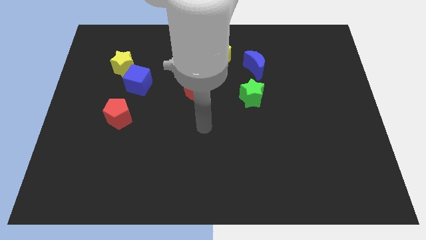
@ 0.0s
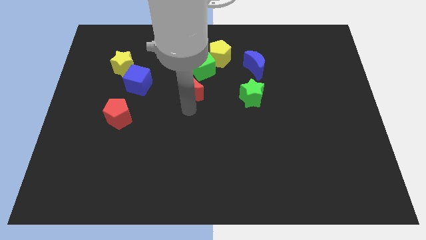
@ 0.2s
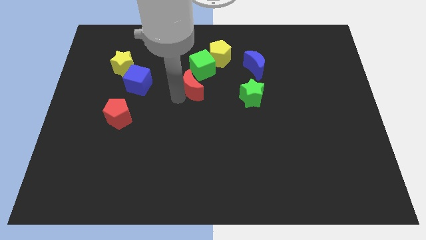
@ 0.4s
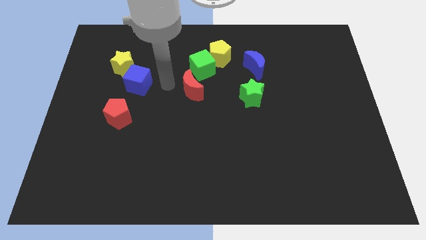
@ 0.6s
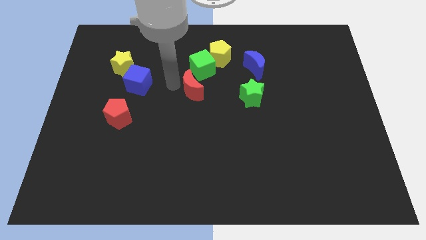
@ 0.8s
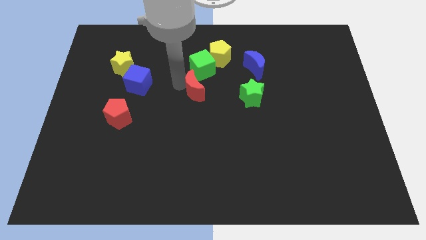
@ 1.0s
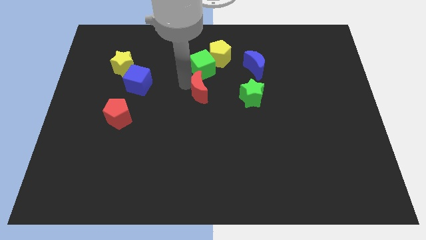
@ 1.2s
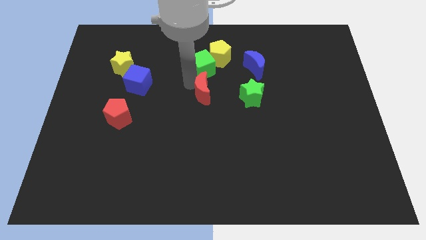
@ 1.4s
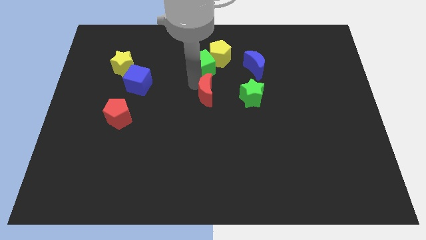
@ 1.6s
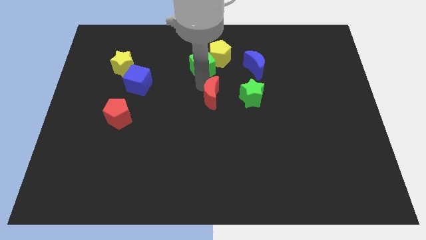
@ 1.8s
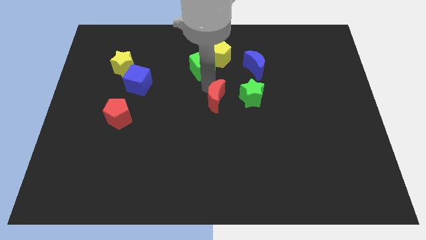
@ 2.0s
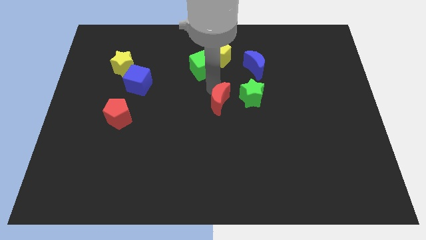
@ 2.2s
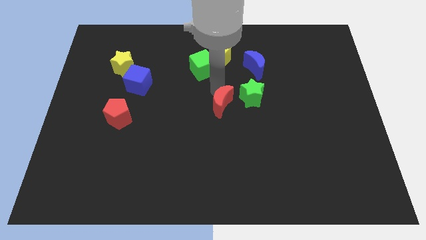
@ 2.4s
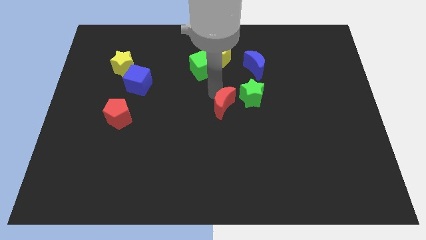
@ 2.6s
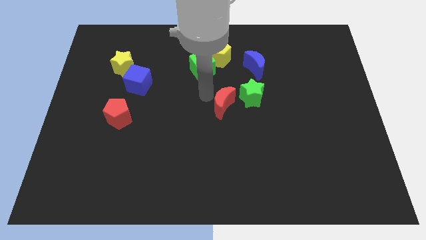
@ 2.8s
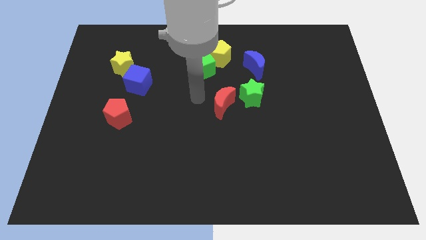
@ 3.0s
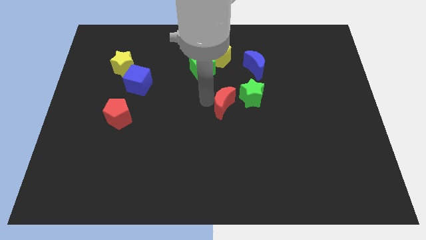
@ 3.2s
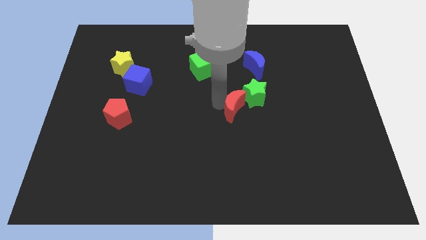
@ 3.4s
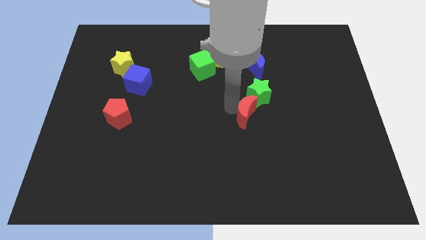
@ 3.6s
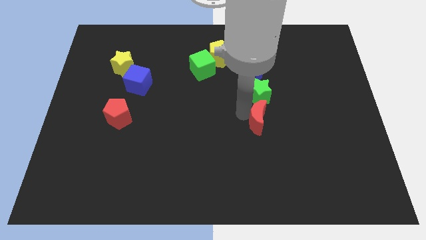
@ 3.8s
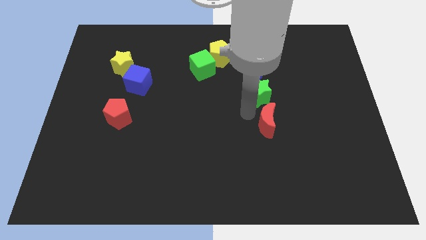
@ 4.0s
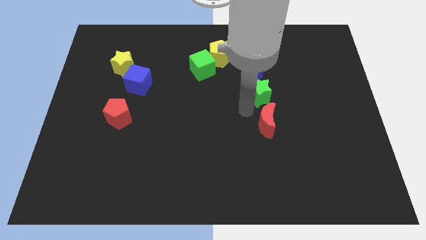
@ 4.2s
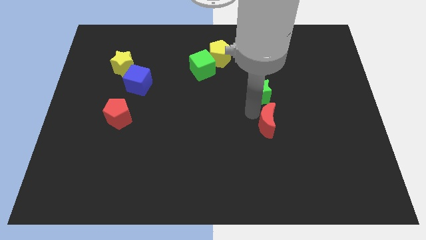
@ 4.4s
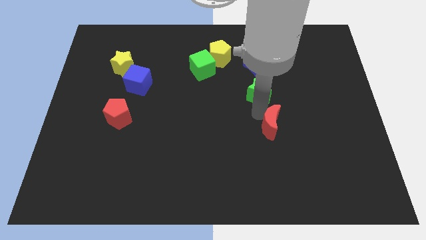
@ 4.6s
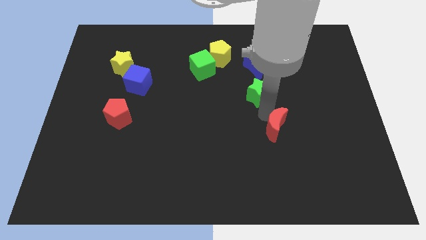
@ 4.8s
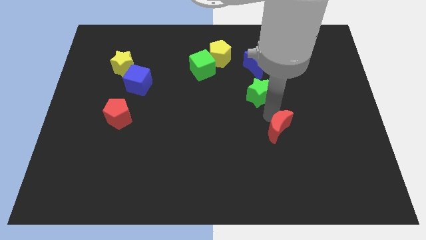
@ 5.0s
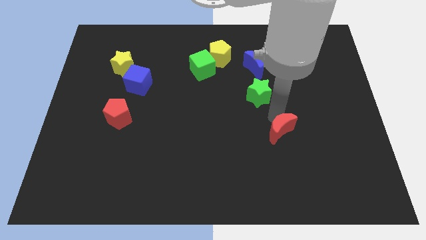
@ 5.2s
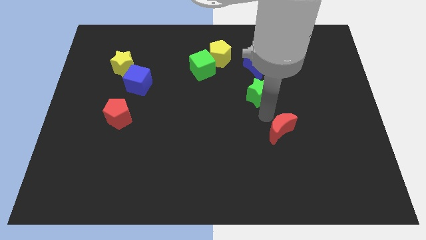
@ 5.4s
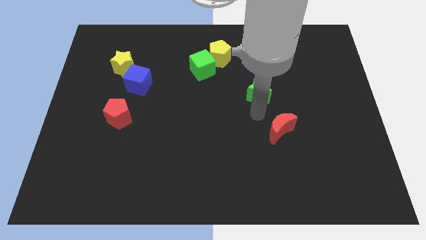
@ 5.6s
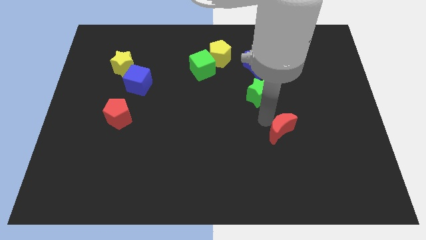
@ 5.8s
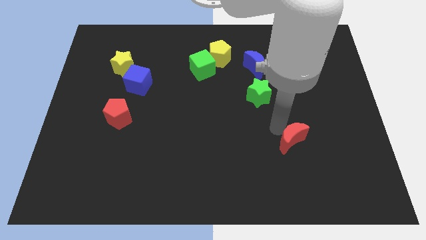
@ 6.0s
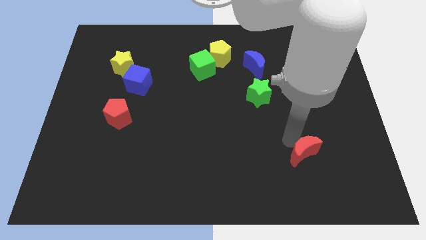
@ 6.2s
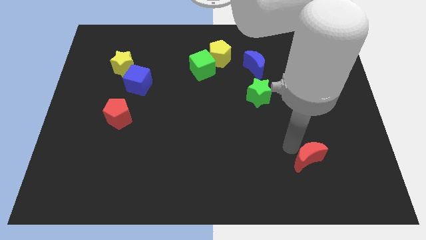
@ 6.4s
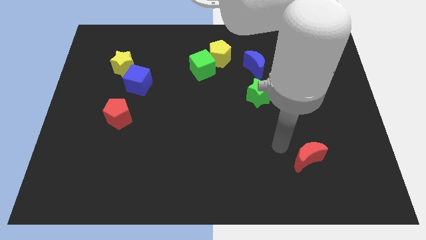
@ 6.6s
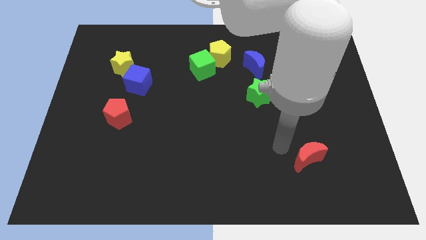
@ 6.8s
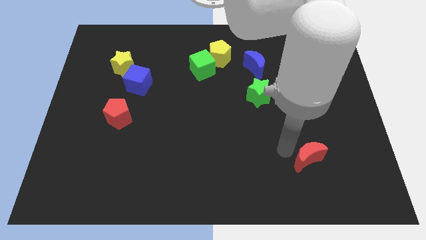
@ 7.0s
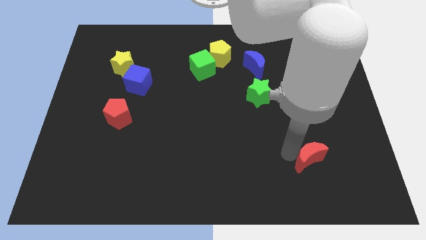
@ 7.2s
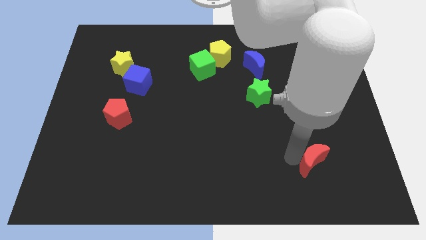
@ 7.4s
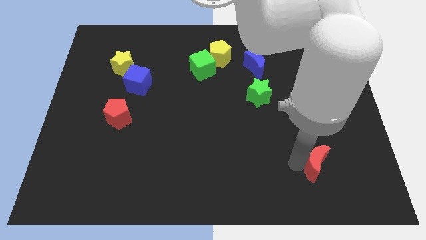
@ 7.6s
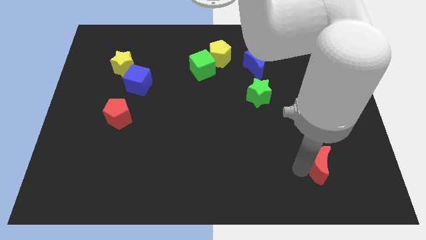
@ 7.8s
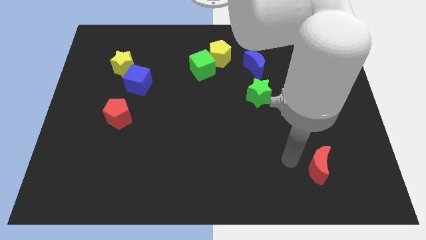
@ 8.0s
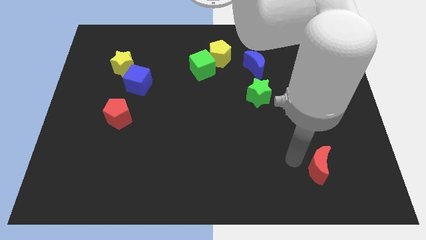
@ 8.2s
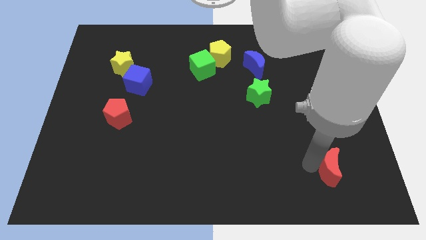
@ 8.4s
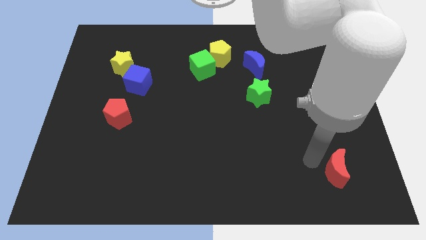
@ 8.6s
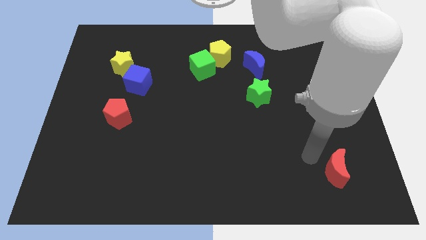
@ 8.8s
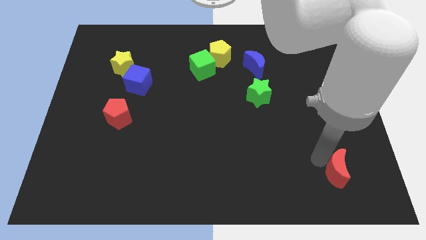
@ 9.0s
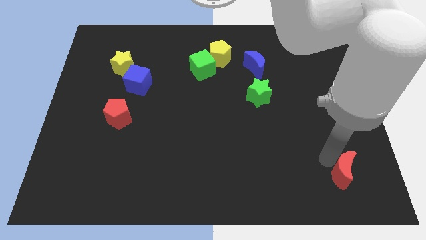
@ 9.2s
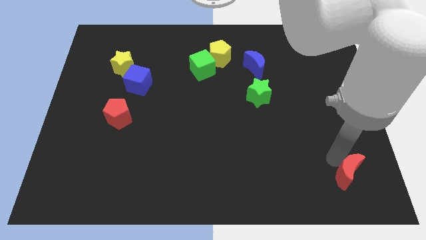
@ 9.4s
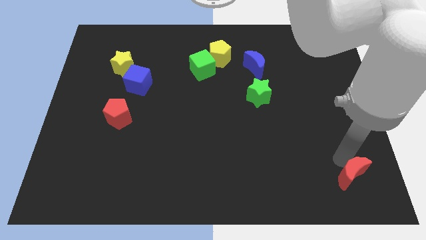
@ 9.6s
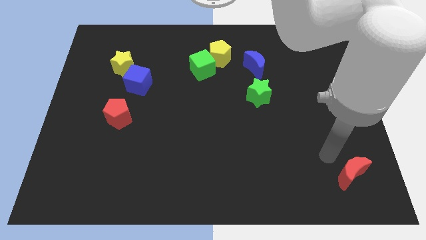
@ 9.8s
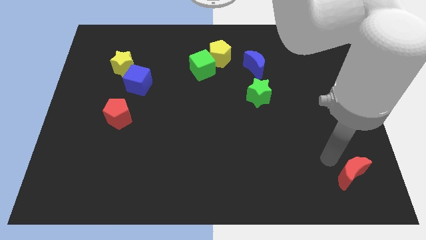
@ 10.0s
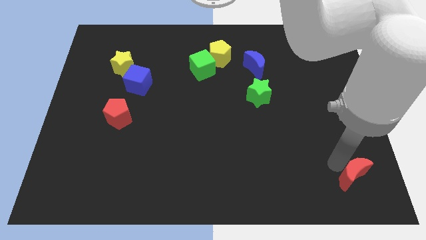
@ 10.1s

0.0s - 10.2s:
push the red moon to the bottom right

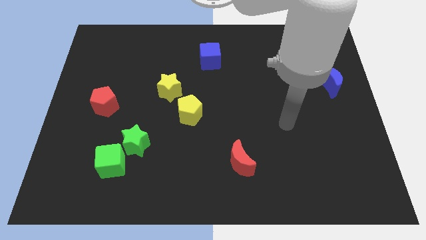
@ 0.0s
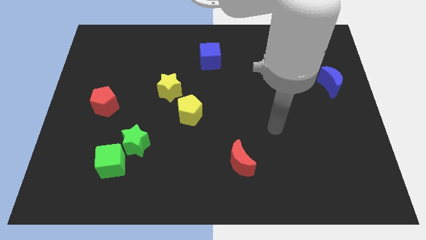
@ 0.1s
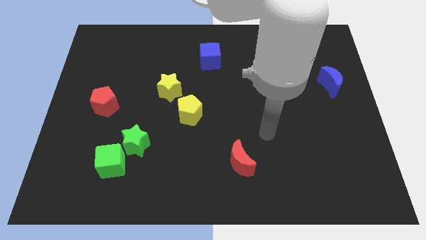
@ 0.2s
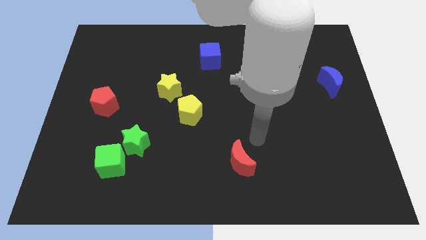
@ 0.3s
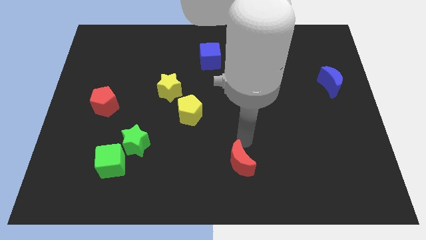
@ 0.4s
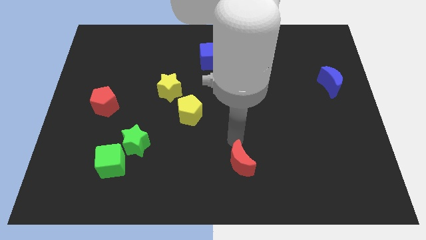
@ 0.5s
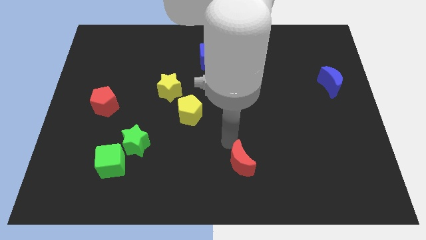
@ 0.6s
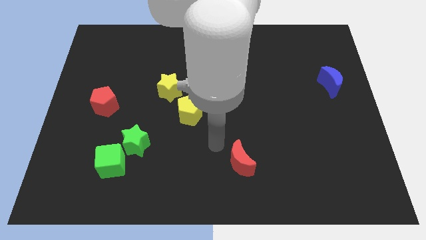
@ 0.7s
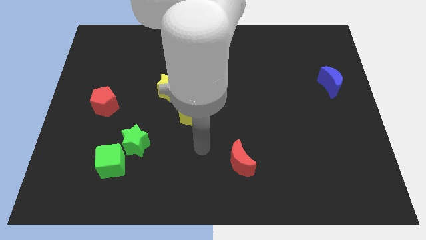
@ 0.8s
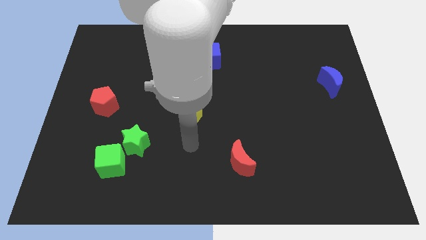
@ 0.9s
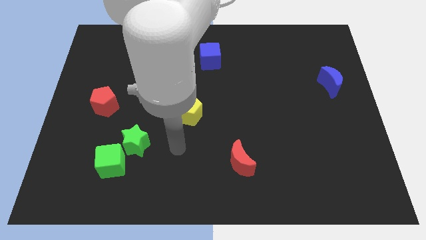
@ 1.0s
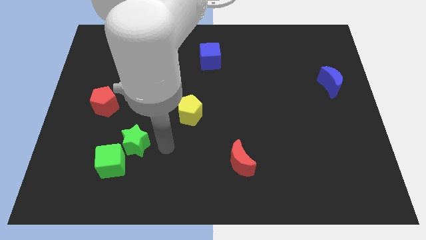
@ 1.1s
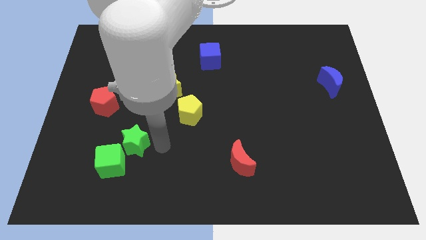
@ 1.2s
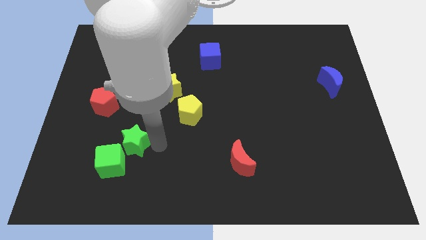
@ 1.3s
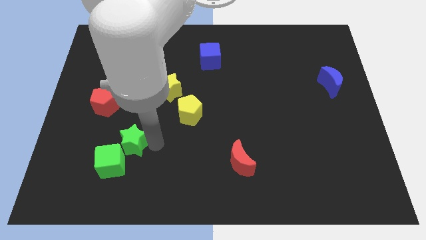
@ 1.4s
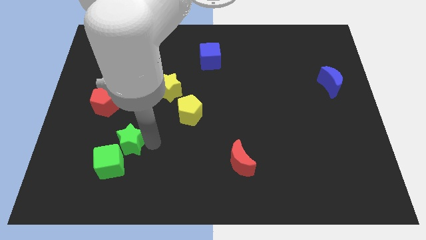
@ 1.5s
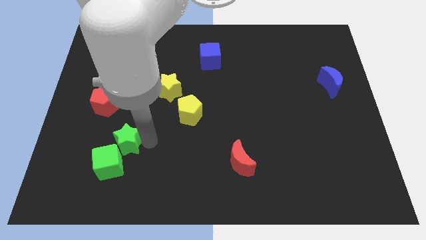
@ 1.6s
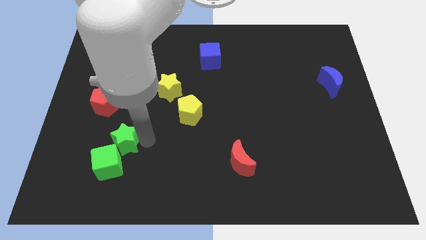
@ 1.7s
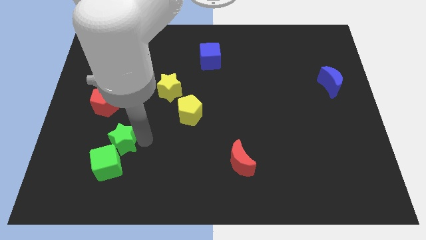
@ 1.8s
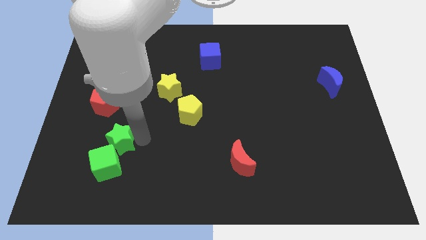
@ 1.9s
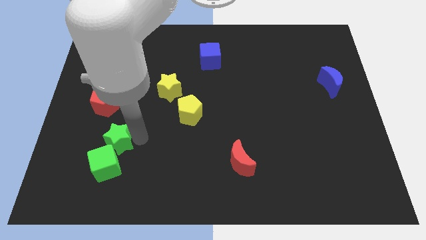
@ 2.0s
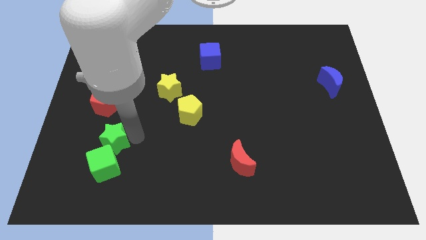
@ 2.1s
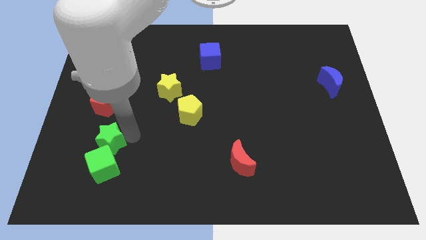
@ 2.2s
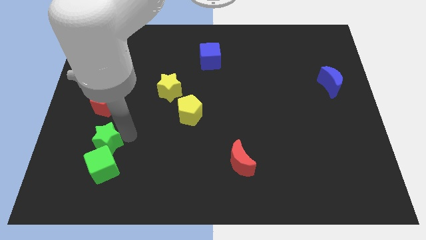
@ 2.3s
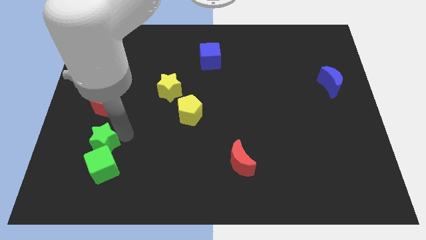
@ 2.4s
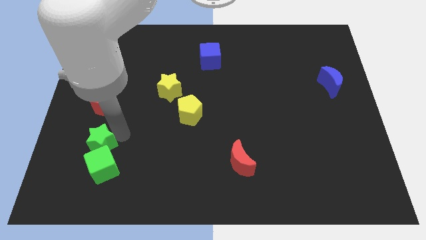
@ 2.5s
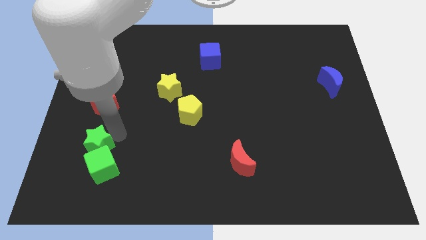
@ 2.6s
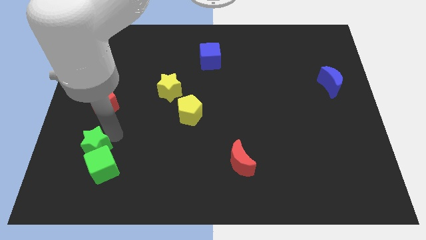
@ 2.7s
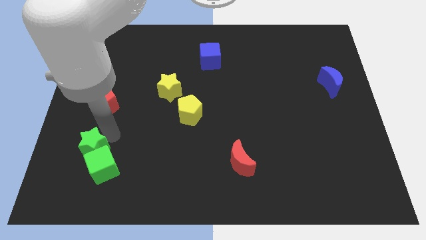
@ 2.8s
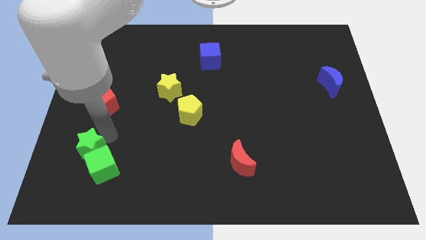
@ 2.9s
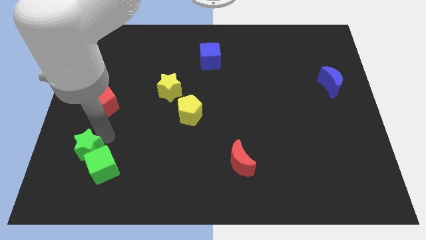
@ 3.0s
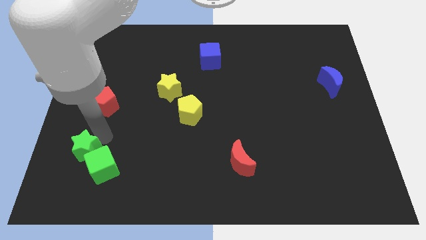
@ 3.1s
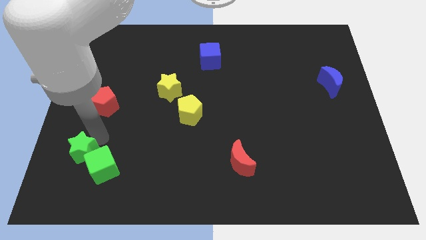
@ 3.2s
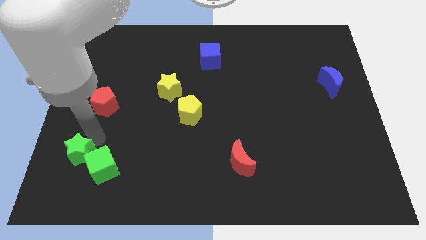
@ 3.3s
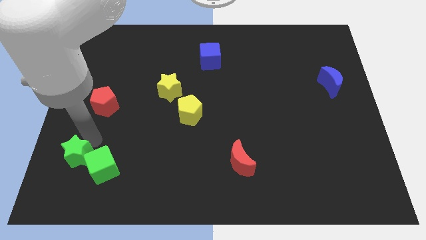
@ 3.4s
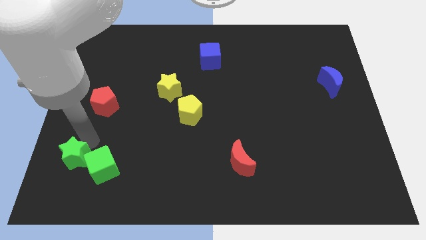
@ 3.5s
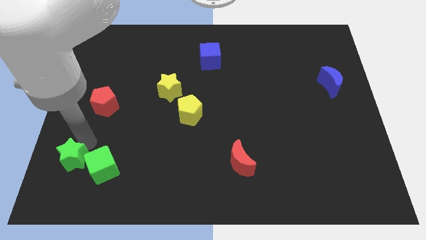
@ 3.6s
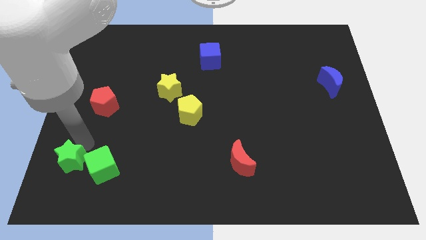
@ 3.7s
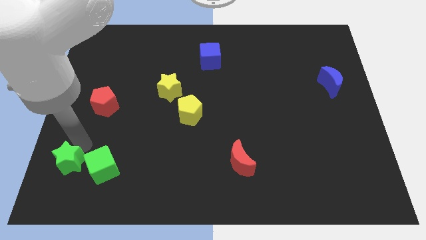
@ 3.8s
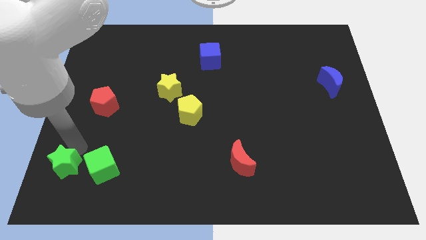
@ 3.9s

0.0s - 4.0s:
move the green star to the bottom left corner
